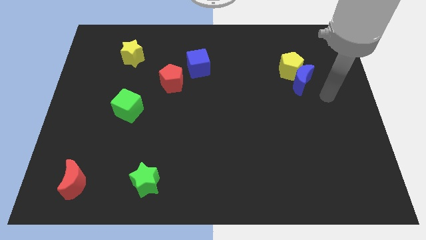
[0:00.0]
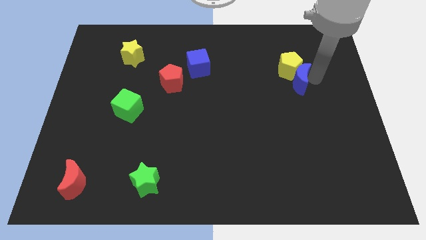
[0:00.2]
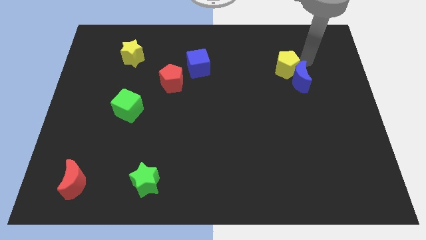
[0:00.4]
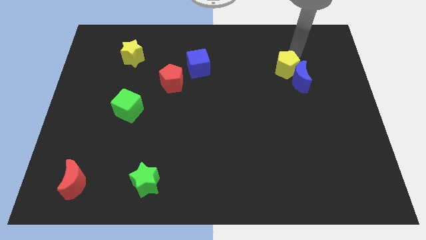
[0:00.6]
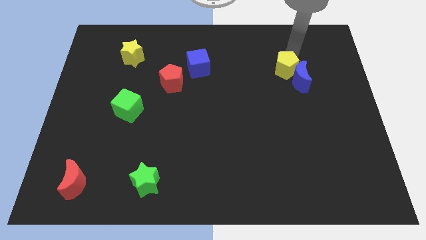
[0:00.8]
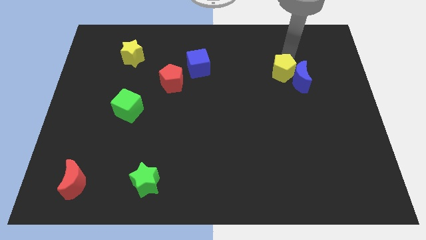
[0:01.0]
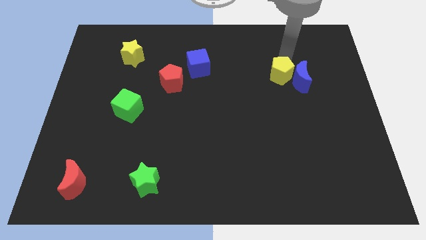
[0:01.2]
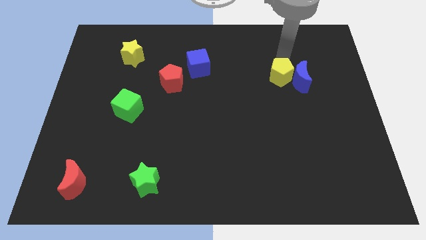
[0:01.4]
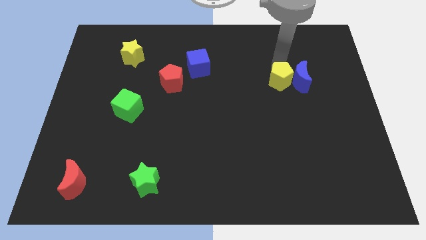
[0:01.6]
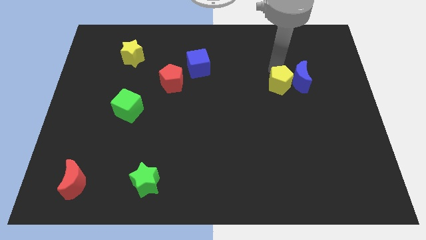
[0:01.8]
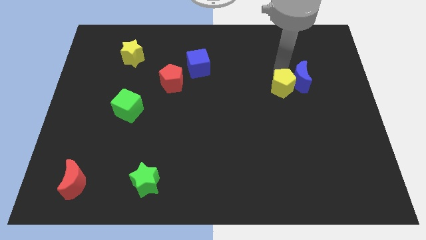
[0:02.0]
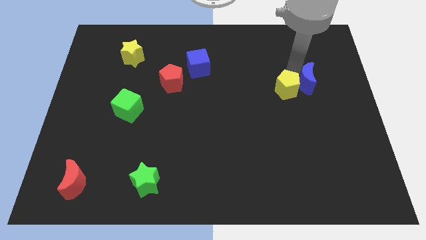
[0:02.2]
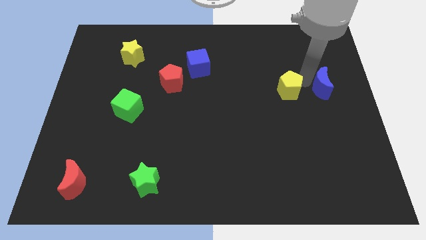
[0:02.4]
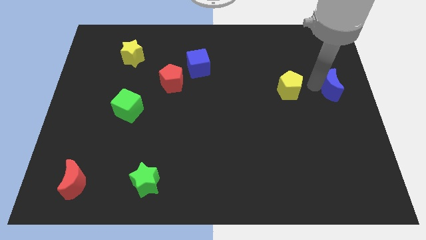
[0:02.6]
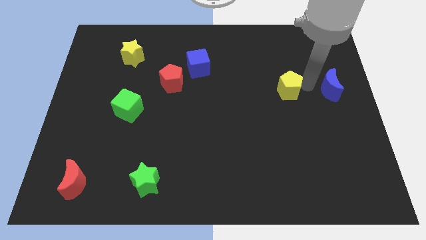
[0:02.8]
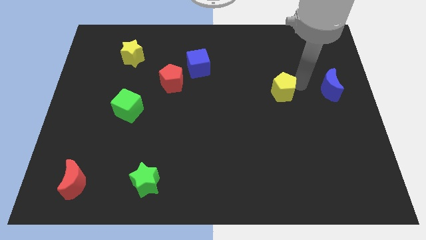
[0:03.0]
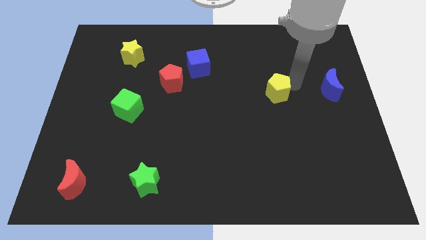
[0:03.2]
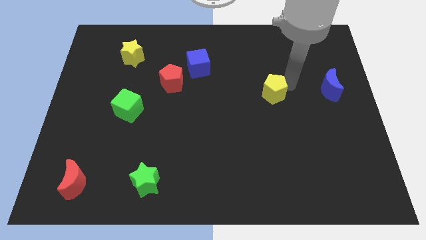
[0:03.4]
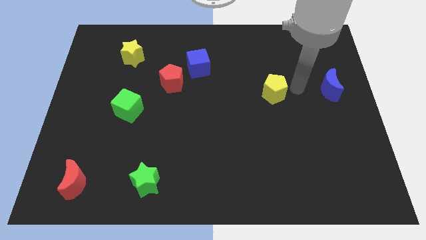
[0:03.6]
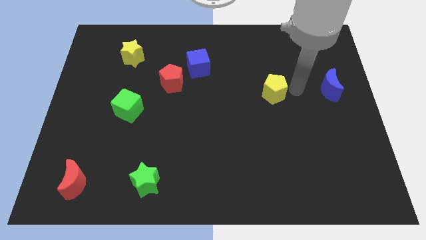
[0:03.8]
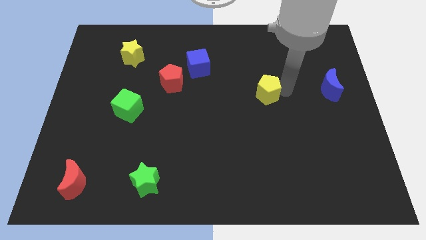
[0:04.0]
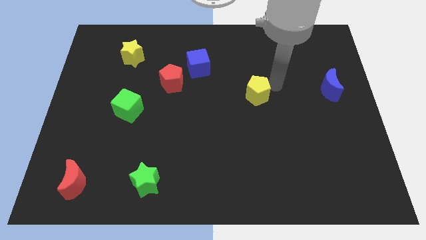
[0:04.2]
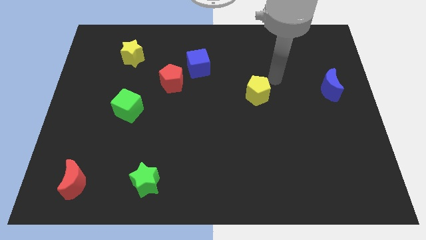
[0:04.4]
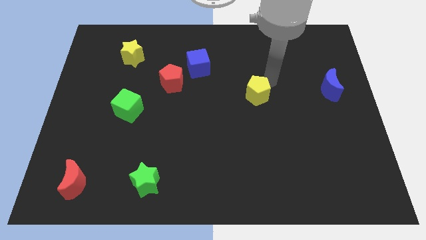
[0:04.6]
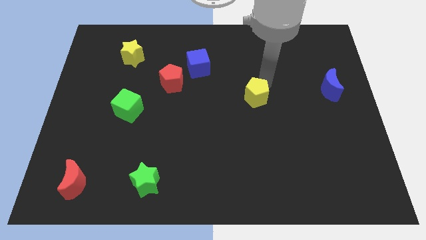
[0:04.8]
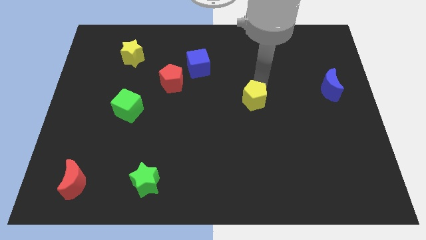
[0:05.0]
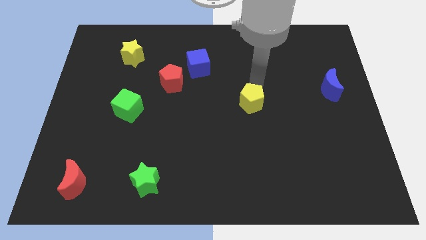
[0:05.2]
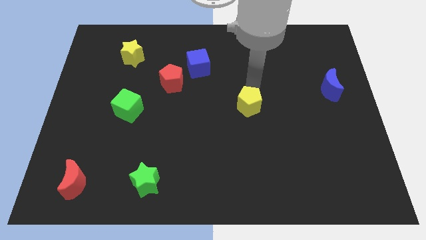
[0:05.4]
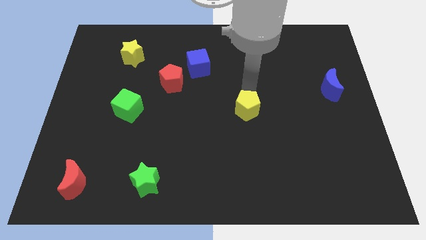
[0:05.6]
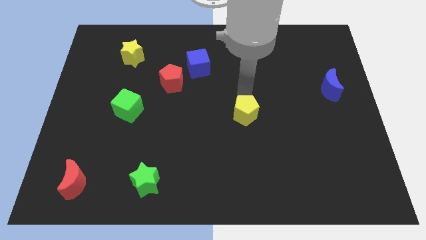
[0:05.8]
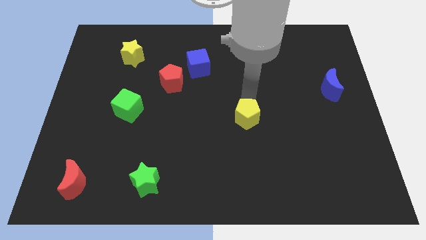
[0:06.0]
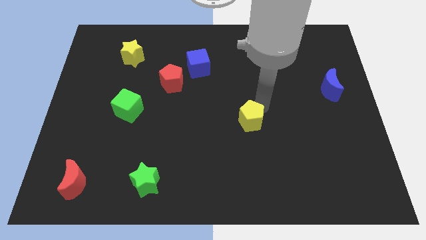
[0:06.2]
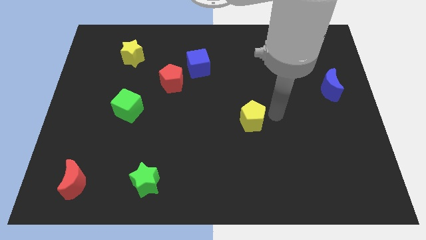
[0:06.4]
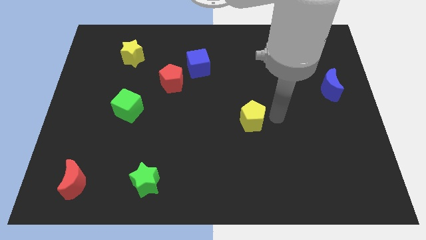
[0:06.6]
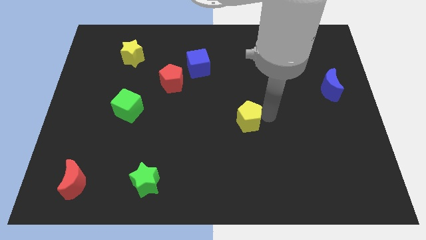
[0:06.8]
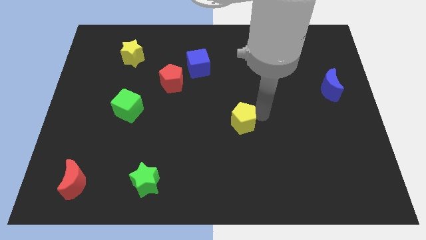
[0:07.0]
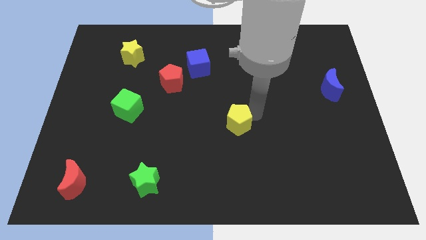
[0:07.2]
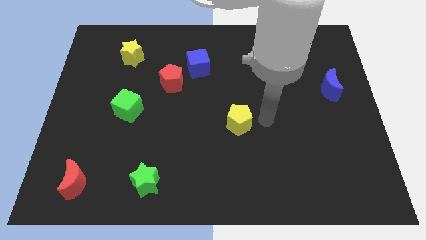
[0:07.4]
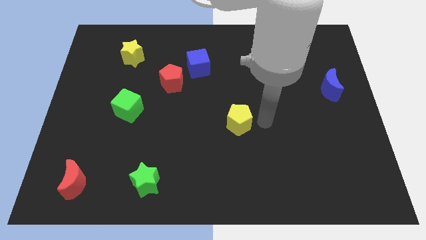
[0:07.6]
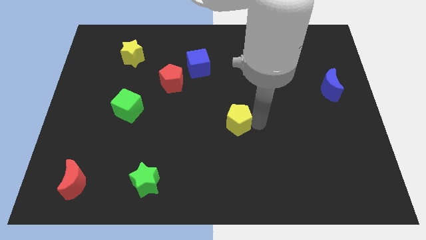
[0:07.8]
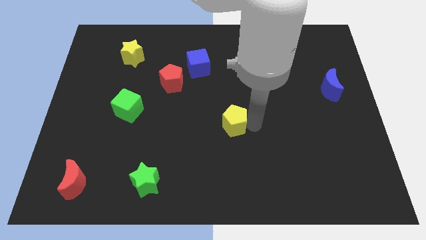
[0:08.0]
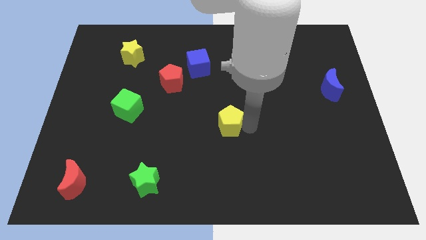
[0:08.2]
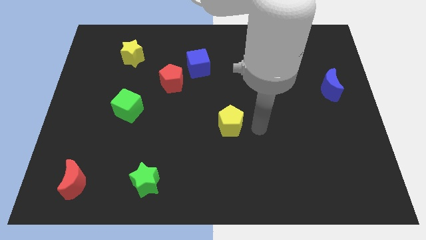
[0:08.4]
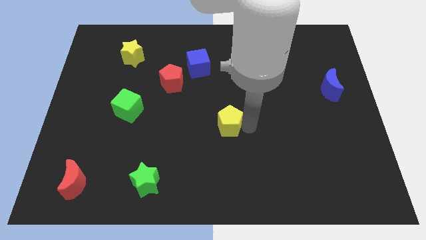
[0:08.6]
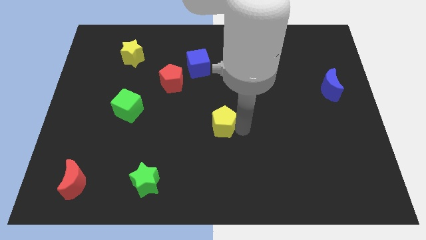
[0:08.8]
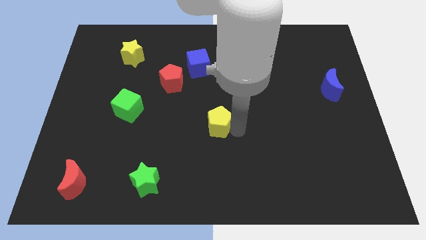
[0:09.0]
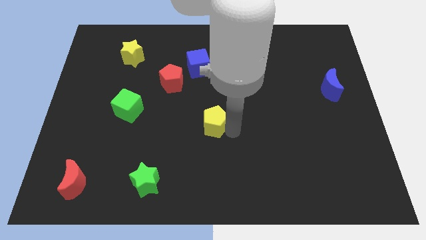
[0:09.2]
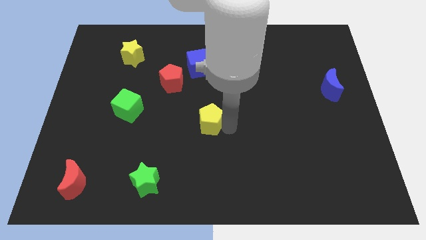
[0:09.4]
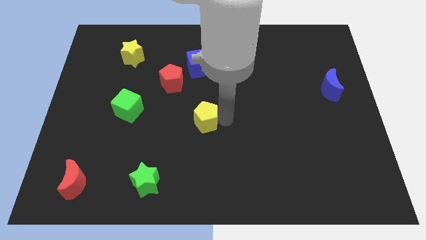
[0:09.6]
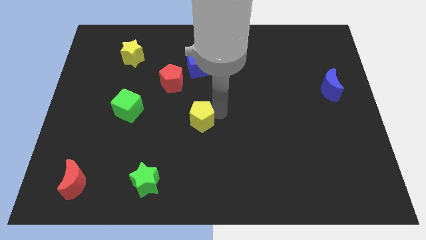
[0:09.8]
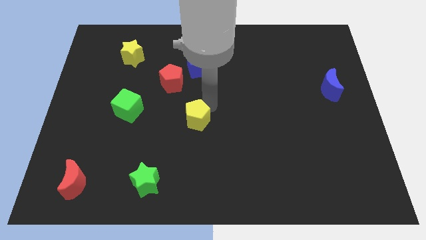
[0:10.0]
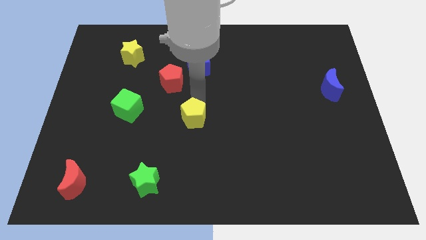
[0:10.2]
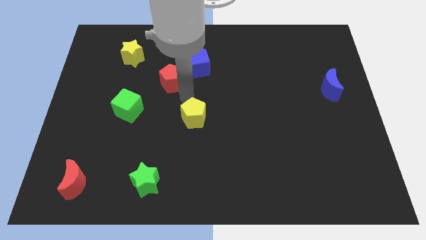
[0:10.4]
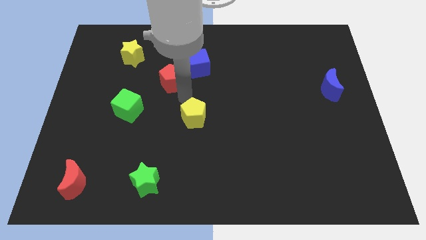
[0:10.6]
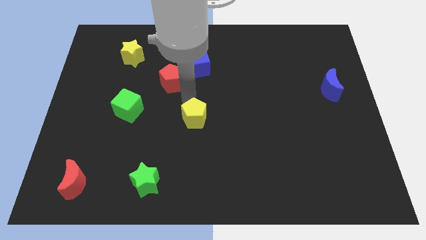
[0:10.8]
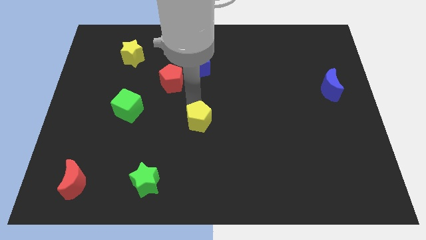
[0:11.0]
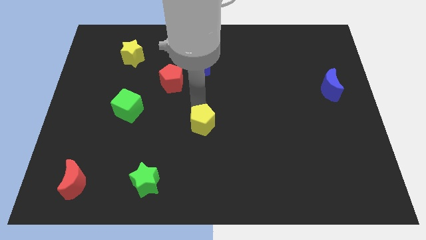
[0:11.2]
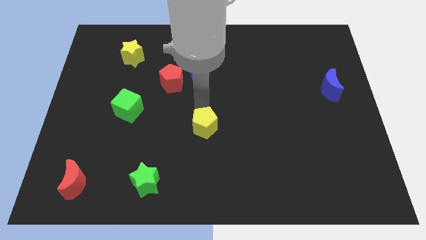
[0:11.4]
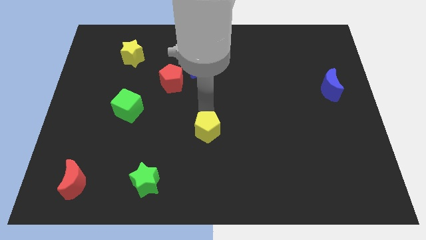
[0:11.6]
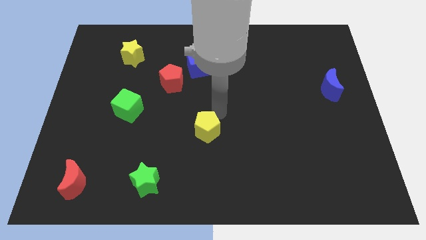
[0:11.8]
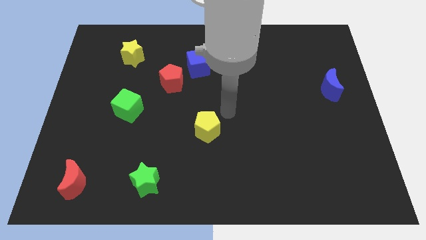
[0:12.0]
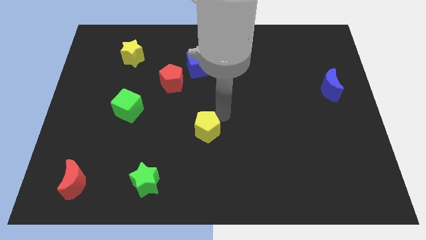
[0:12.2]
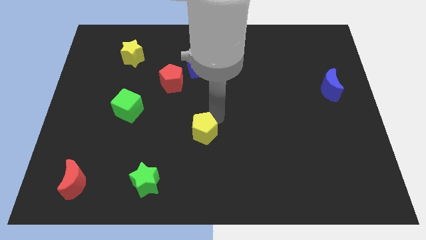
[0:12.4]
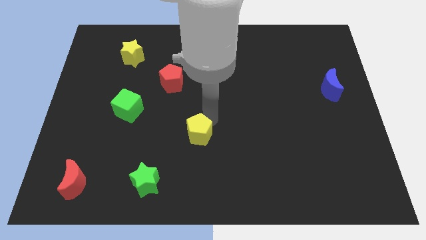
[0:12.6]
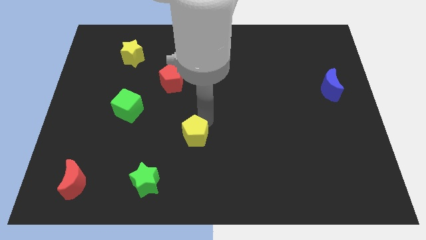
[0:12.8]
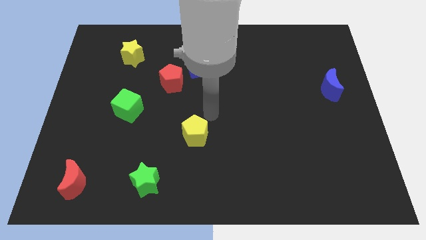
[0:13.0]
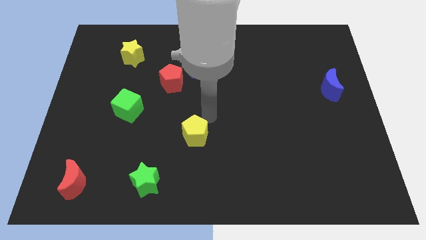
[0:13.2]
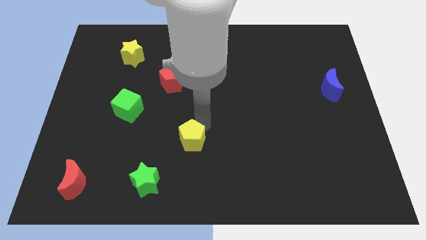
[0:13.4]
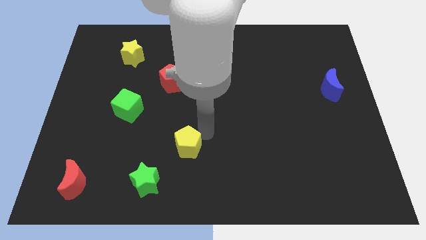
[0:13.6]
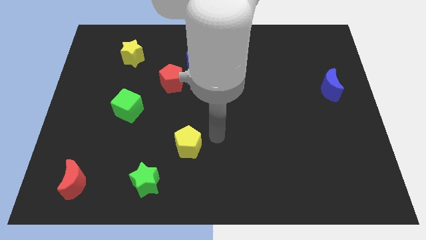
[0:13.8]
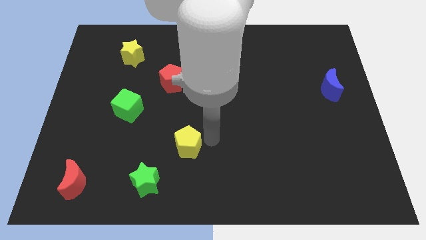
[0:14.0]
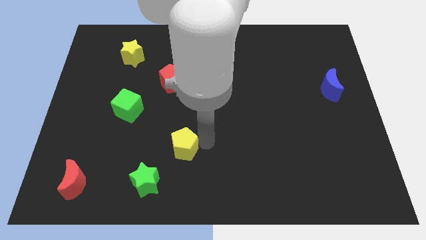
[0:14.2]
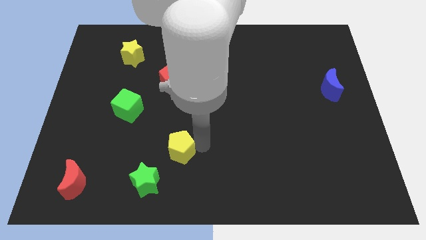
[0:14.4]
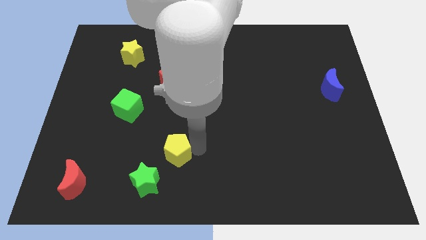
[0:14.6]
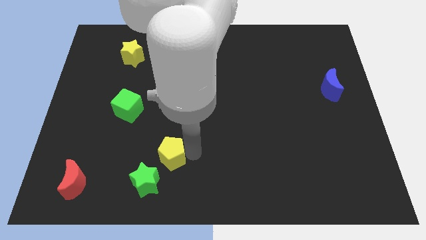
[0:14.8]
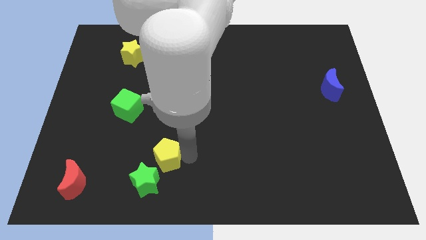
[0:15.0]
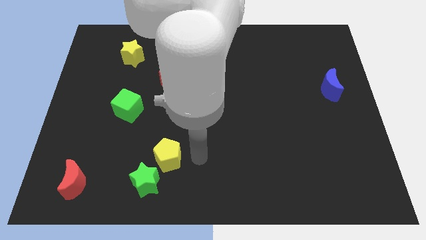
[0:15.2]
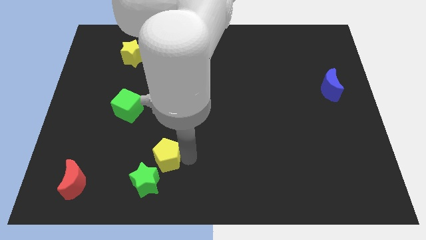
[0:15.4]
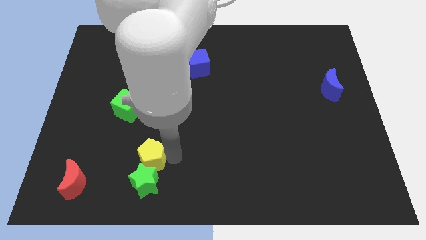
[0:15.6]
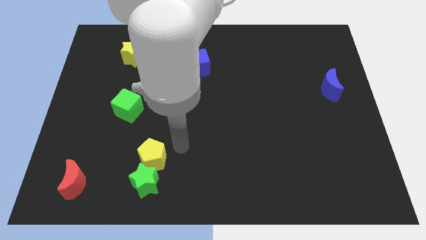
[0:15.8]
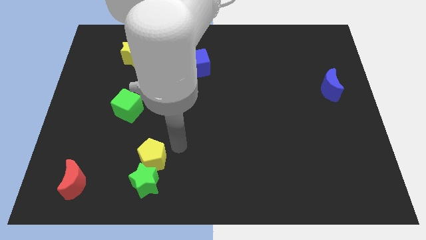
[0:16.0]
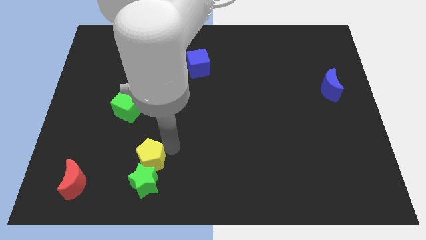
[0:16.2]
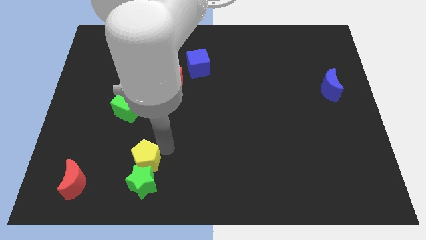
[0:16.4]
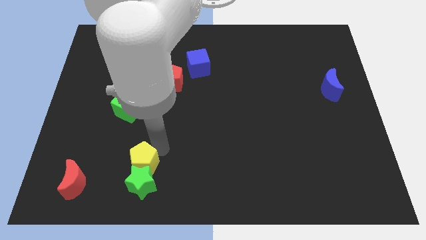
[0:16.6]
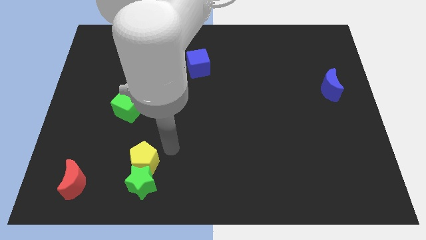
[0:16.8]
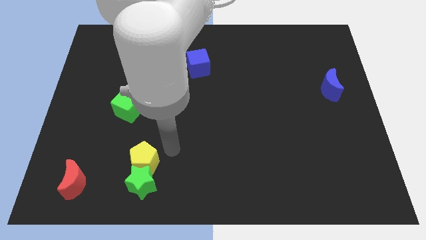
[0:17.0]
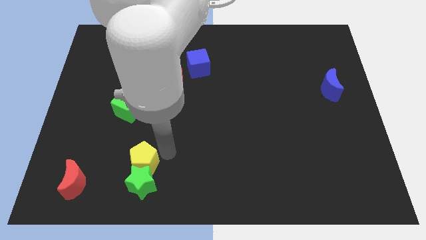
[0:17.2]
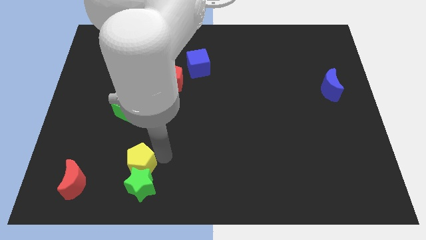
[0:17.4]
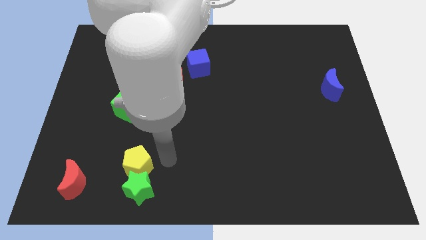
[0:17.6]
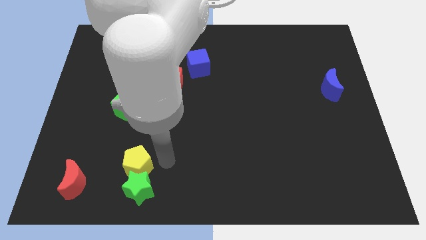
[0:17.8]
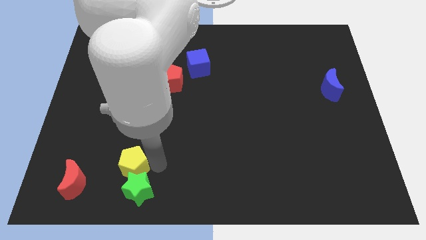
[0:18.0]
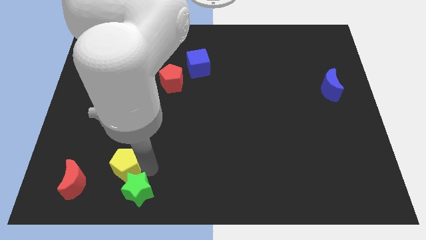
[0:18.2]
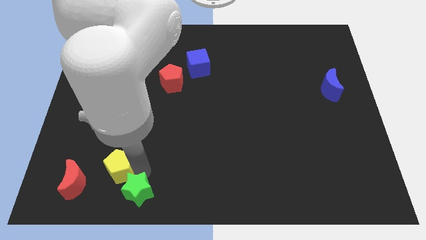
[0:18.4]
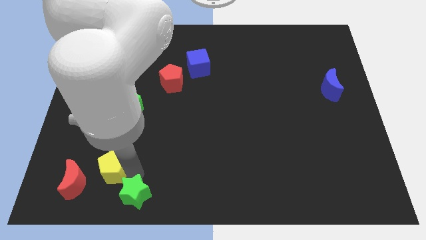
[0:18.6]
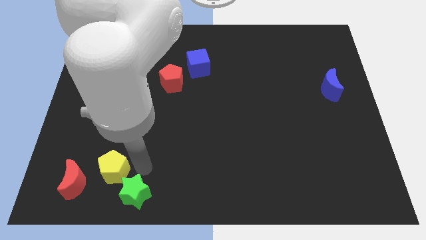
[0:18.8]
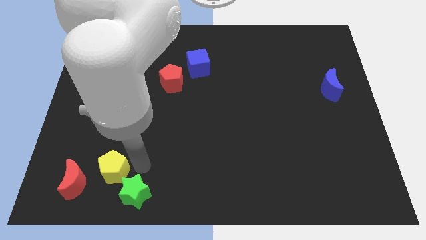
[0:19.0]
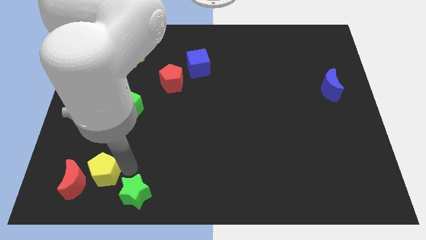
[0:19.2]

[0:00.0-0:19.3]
move the yellow pentagon to the red moon
